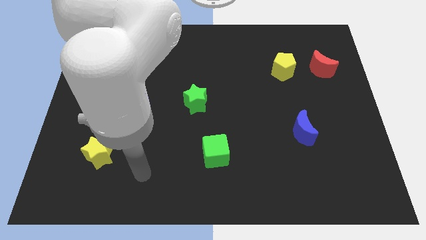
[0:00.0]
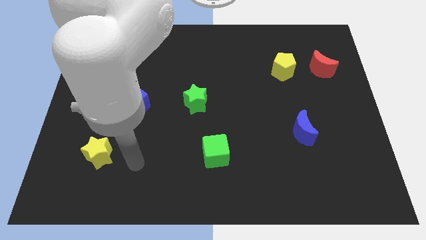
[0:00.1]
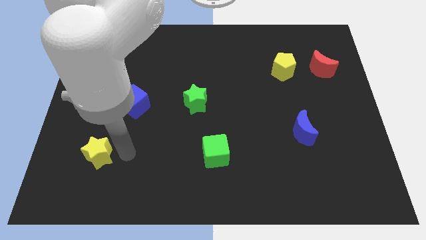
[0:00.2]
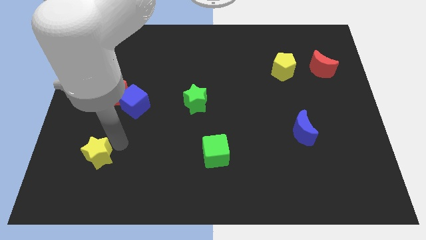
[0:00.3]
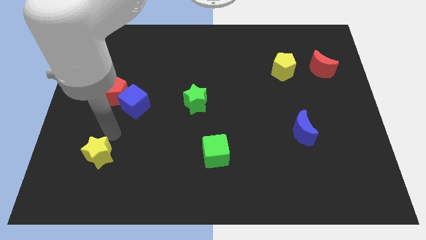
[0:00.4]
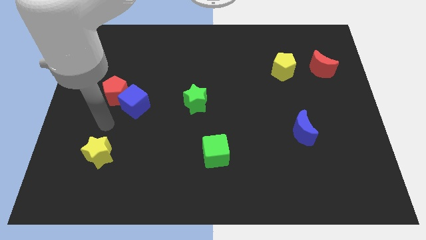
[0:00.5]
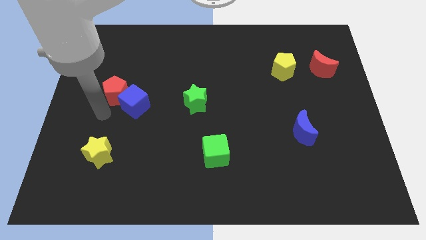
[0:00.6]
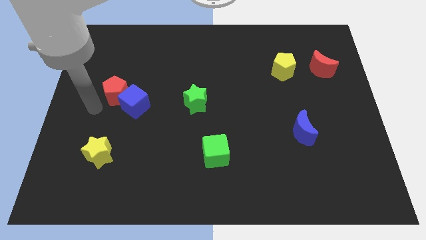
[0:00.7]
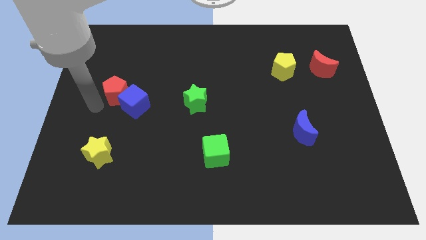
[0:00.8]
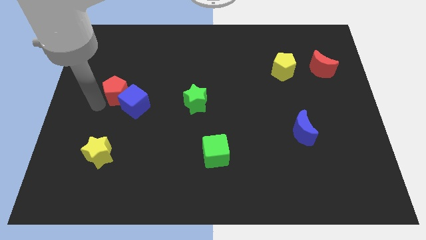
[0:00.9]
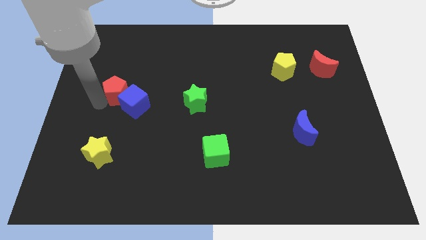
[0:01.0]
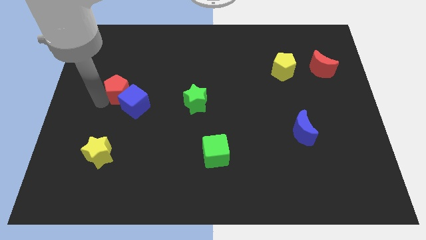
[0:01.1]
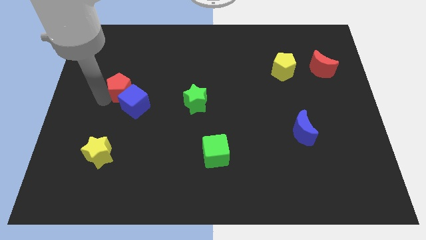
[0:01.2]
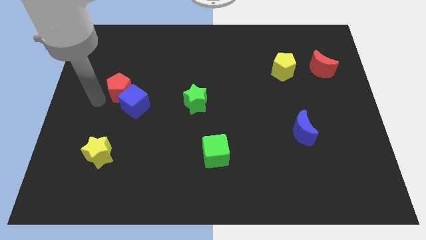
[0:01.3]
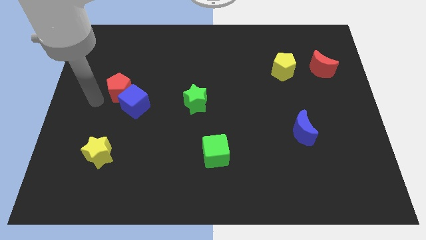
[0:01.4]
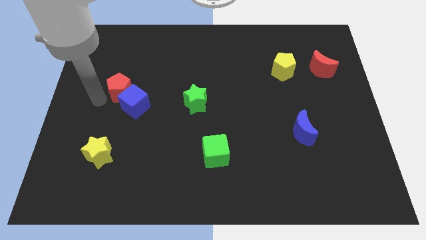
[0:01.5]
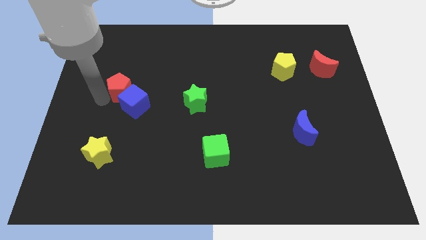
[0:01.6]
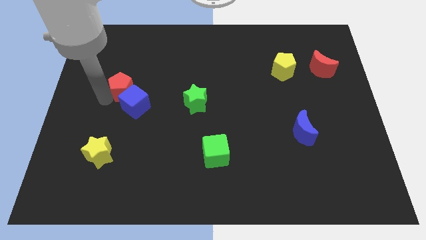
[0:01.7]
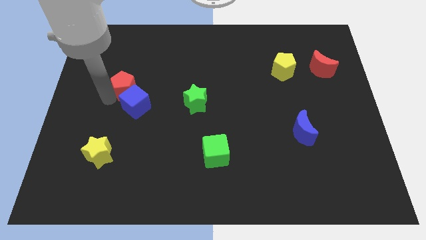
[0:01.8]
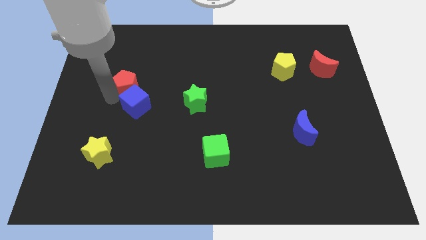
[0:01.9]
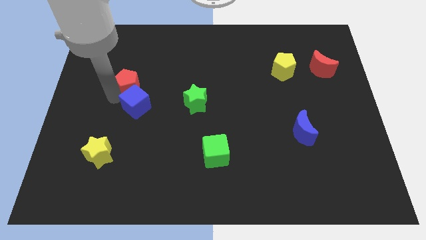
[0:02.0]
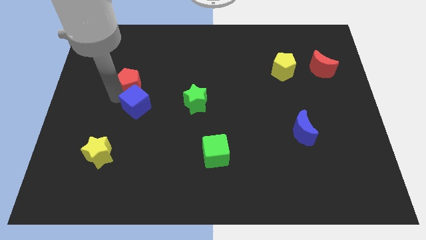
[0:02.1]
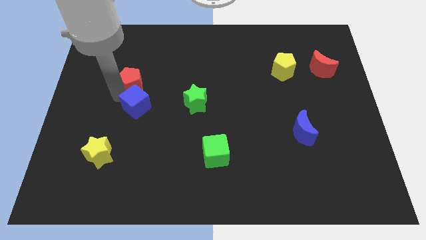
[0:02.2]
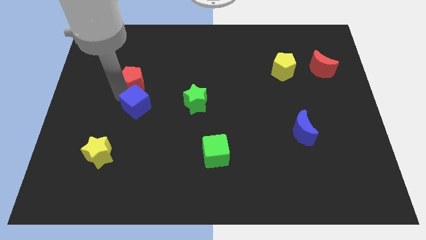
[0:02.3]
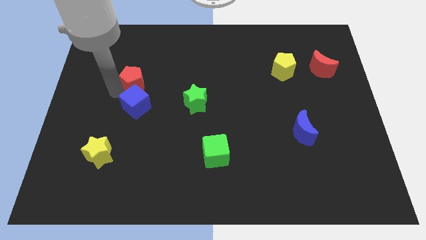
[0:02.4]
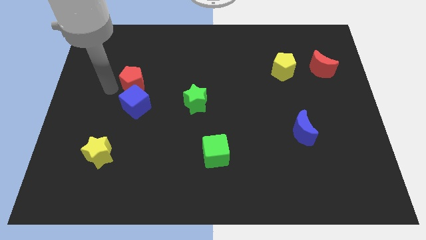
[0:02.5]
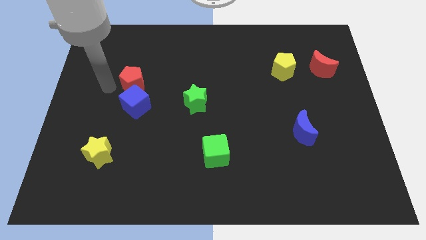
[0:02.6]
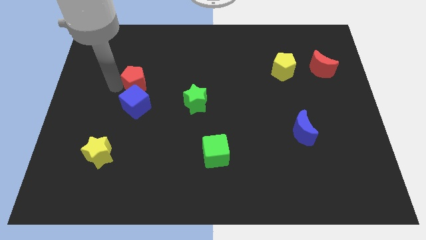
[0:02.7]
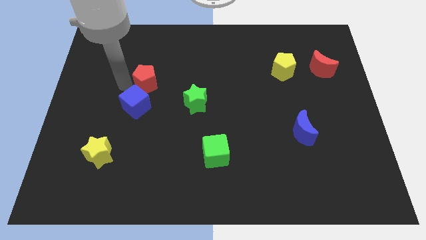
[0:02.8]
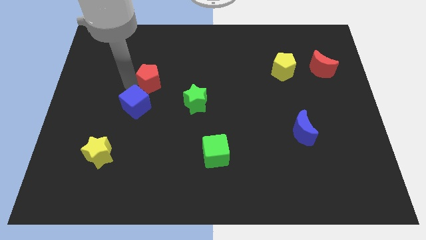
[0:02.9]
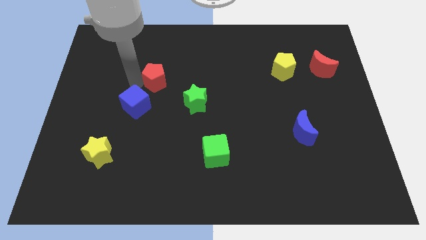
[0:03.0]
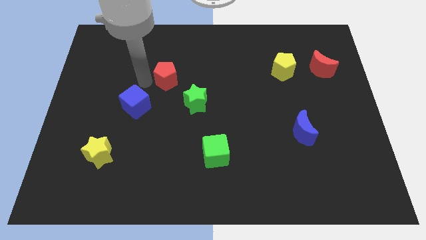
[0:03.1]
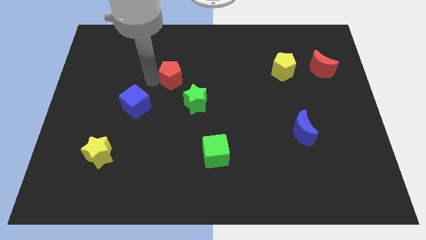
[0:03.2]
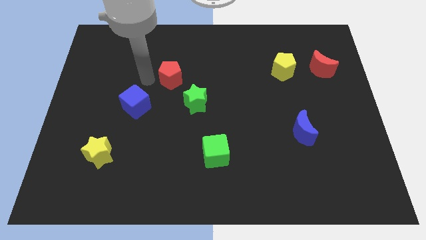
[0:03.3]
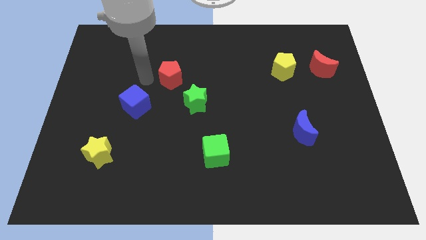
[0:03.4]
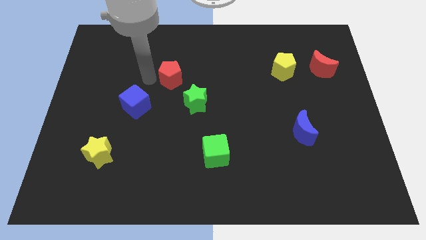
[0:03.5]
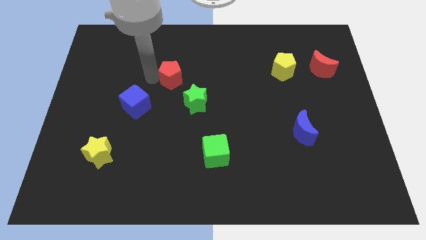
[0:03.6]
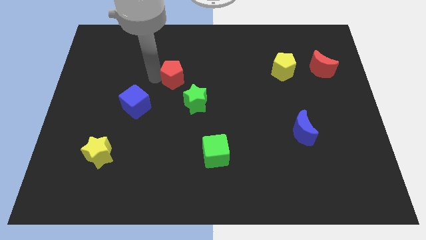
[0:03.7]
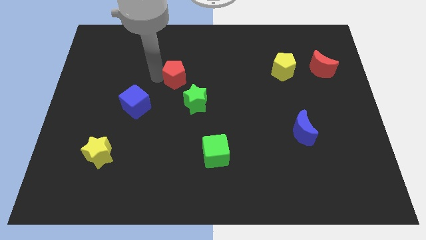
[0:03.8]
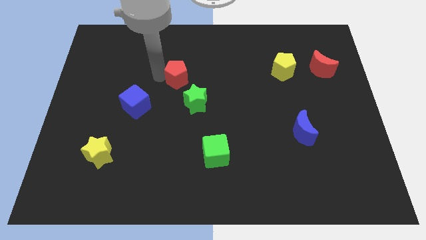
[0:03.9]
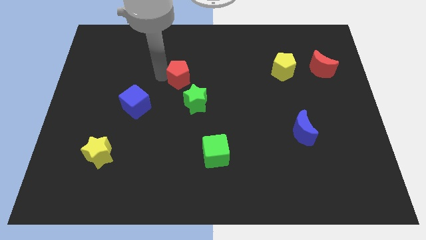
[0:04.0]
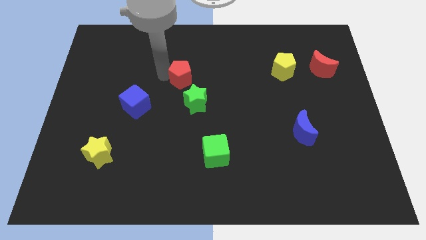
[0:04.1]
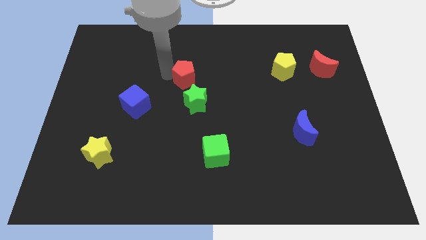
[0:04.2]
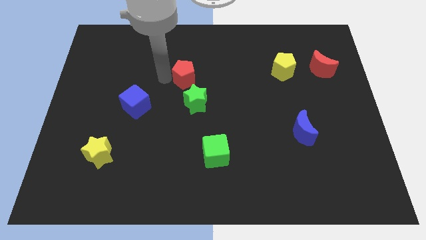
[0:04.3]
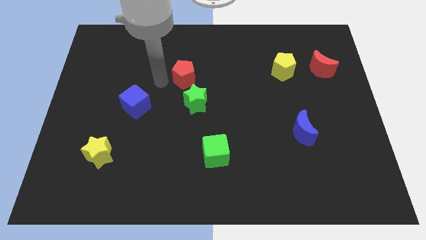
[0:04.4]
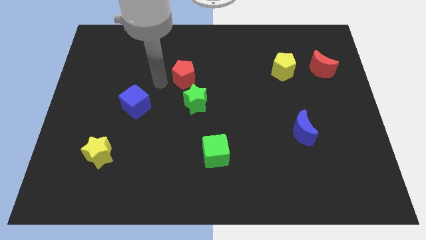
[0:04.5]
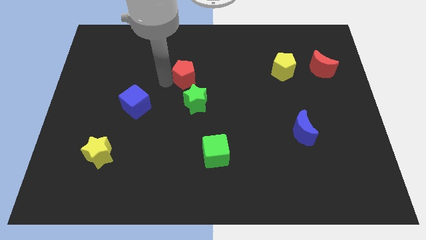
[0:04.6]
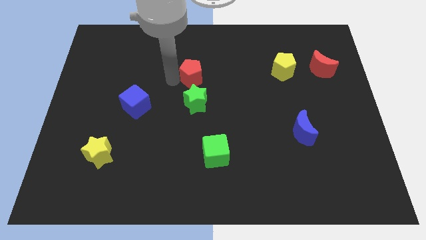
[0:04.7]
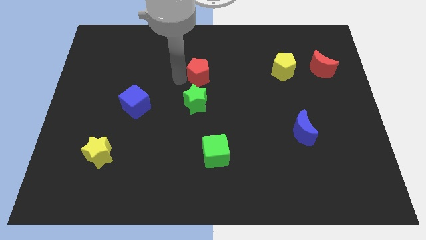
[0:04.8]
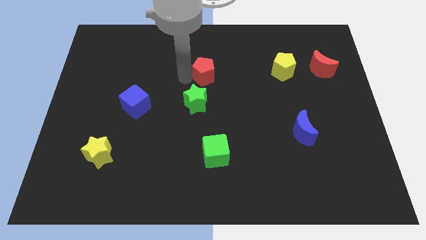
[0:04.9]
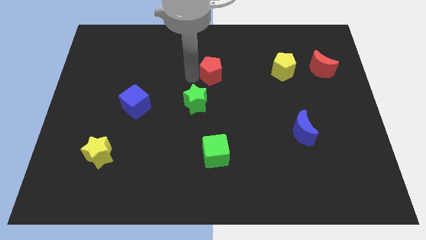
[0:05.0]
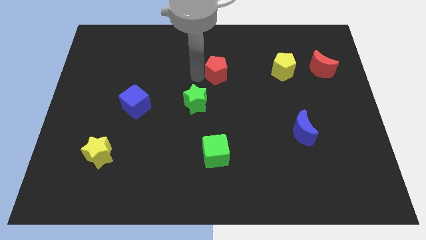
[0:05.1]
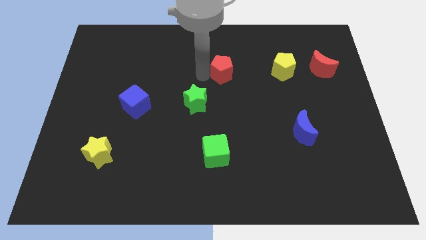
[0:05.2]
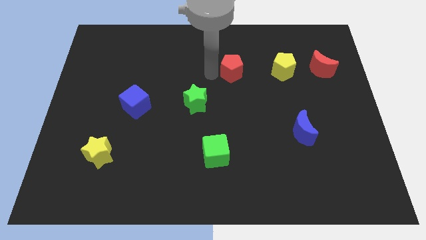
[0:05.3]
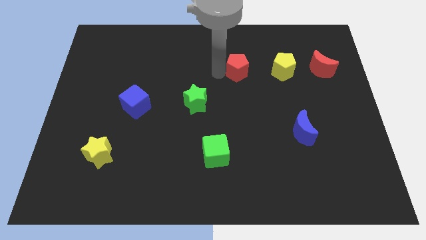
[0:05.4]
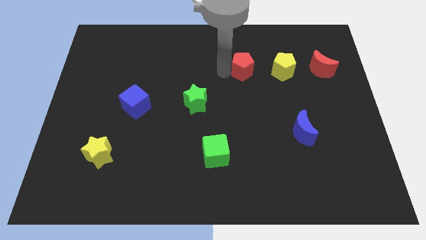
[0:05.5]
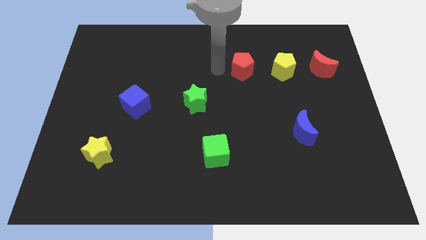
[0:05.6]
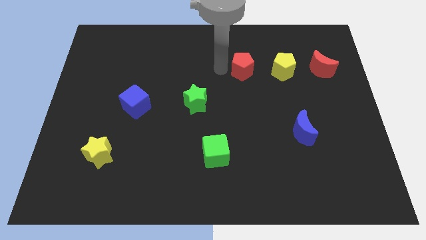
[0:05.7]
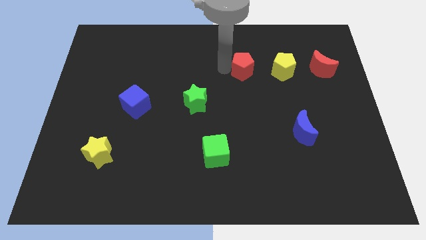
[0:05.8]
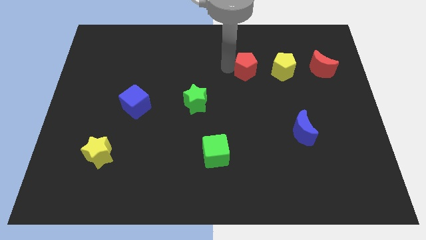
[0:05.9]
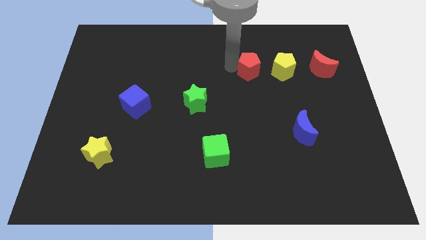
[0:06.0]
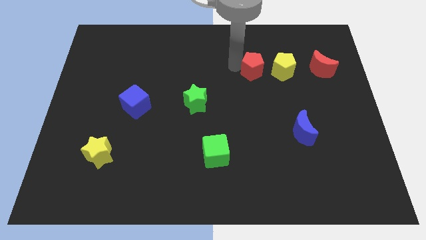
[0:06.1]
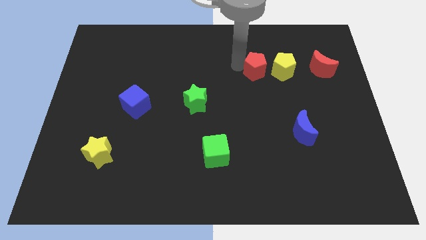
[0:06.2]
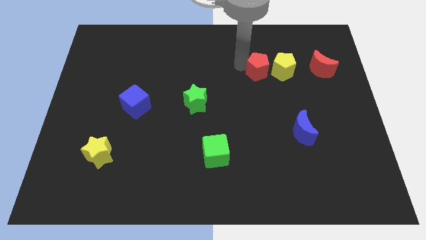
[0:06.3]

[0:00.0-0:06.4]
put the red pentagon left of the red moon
